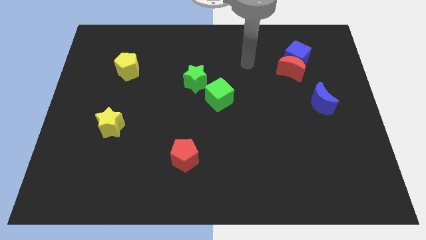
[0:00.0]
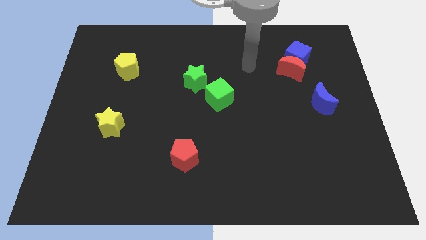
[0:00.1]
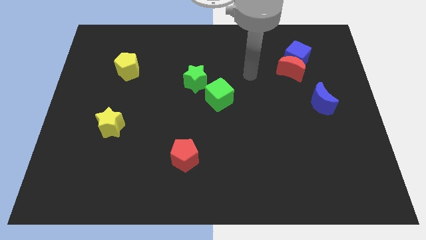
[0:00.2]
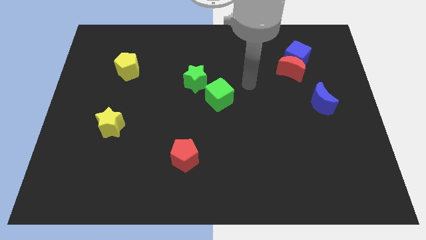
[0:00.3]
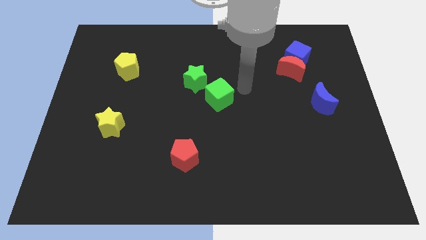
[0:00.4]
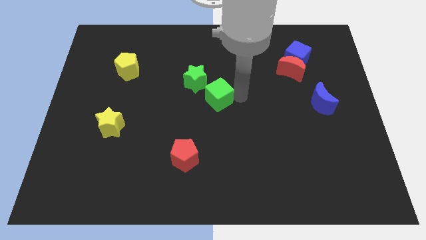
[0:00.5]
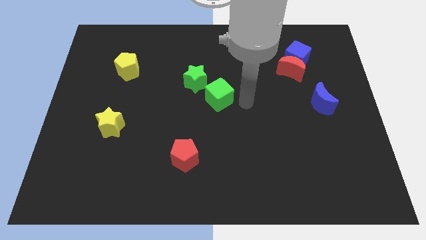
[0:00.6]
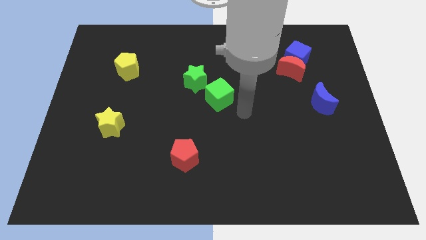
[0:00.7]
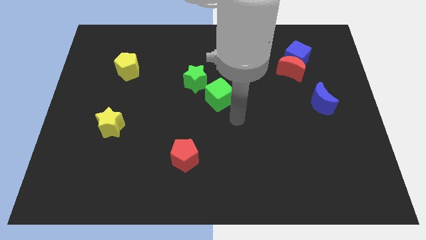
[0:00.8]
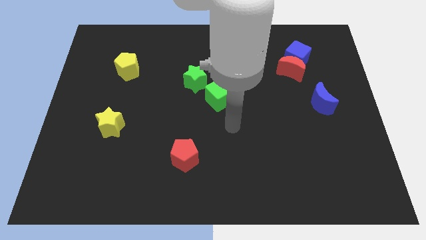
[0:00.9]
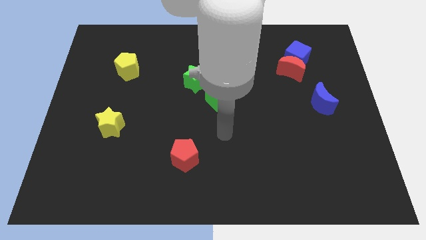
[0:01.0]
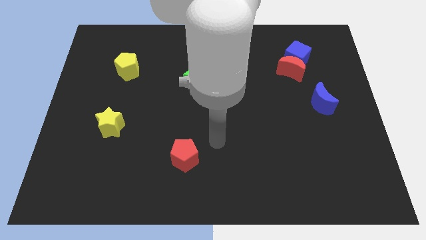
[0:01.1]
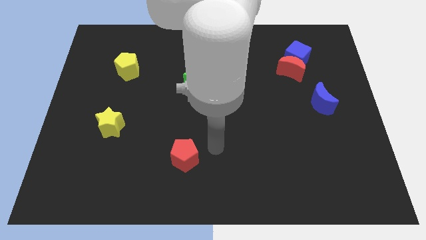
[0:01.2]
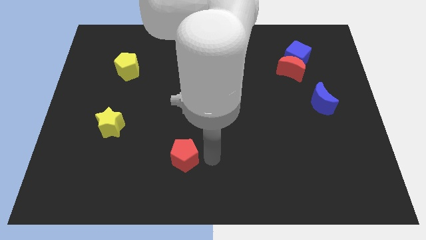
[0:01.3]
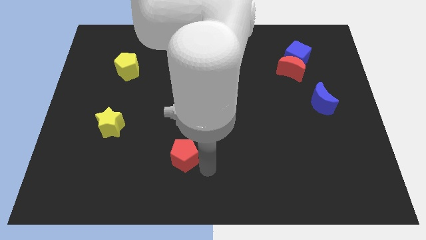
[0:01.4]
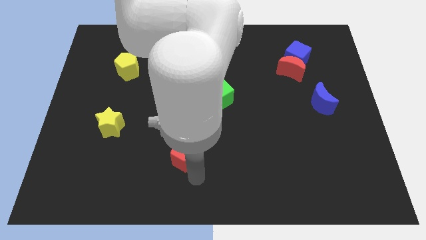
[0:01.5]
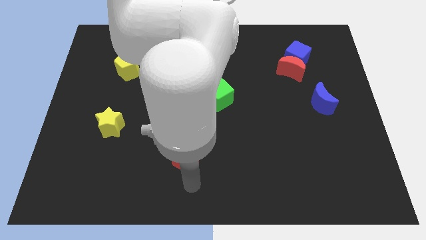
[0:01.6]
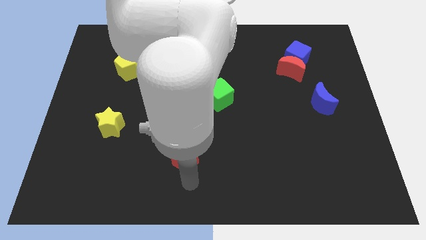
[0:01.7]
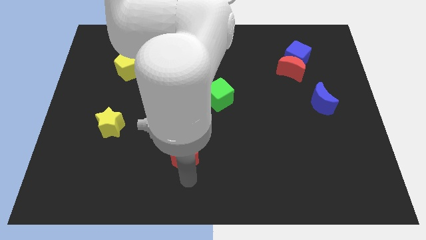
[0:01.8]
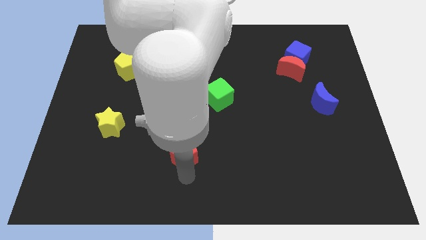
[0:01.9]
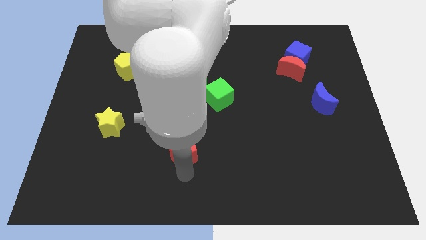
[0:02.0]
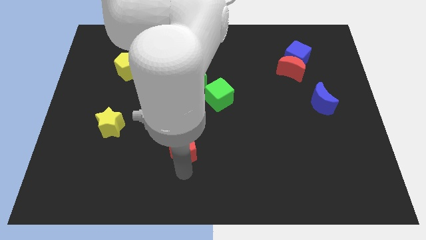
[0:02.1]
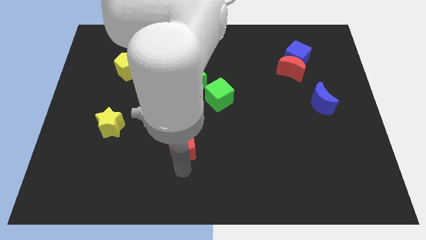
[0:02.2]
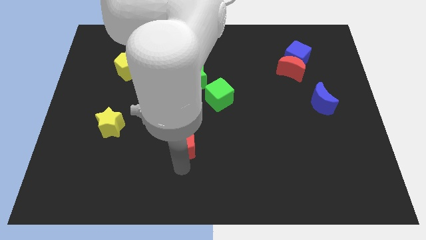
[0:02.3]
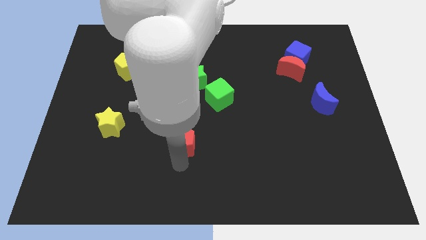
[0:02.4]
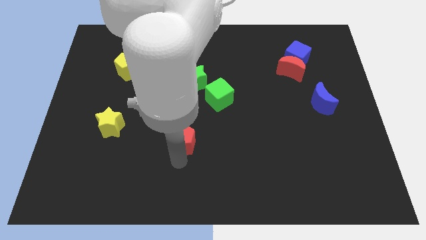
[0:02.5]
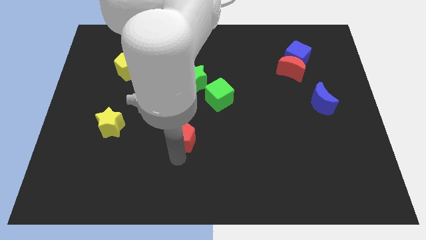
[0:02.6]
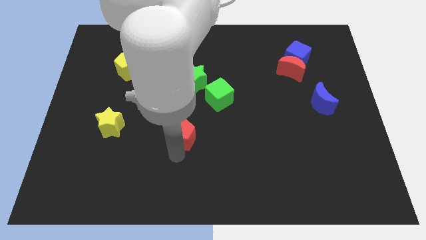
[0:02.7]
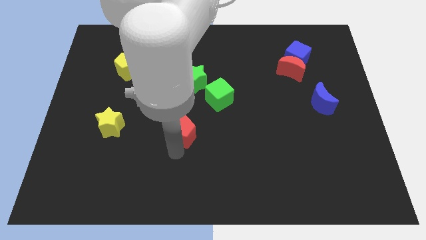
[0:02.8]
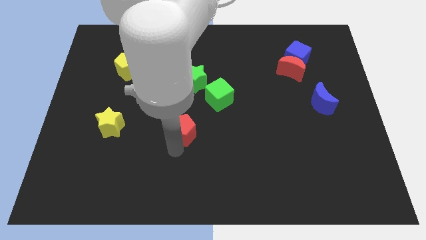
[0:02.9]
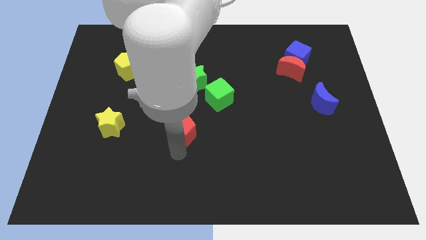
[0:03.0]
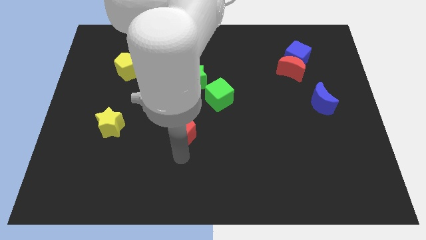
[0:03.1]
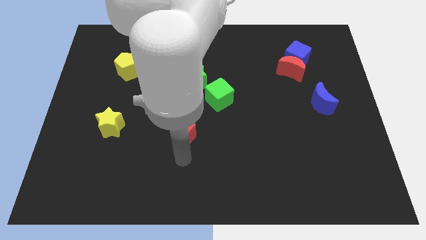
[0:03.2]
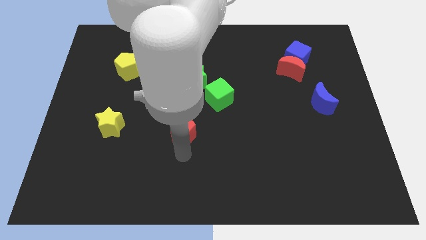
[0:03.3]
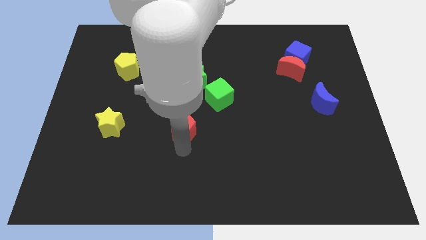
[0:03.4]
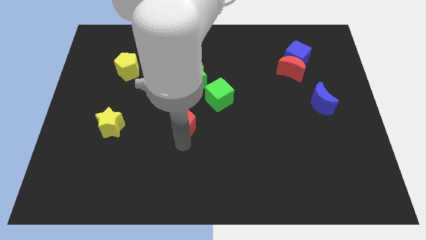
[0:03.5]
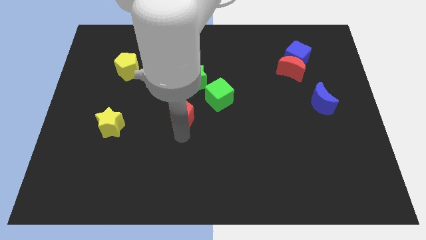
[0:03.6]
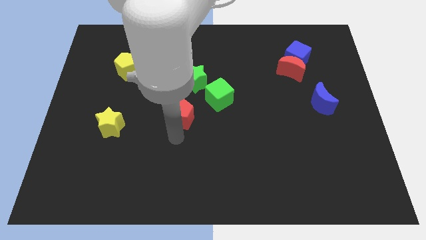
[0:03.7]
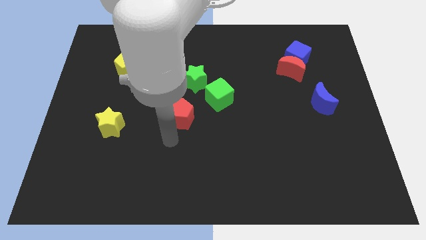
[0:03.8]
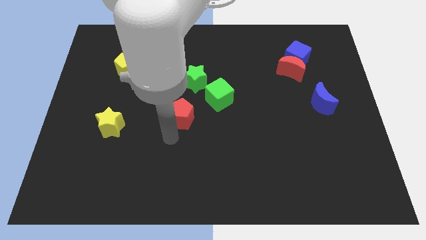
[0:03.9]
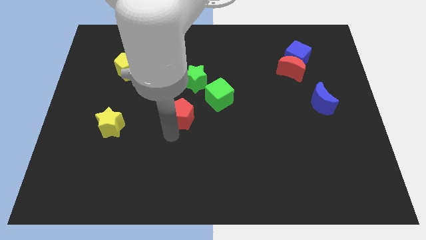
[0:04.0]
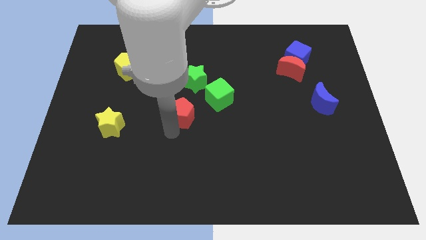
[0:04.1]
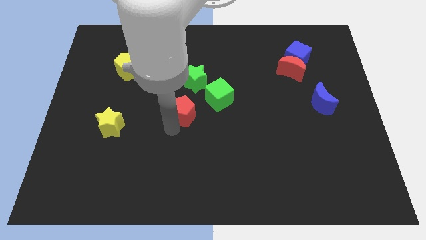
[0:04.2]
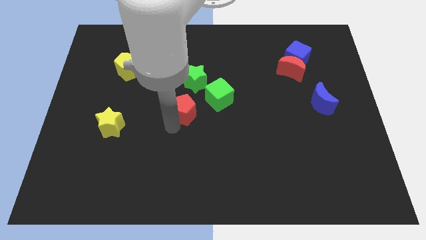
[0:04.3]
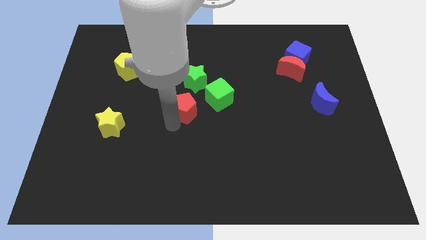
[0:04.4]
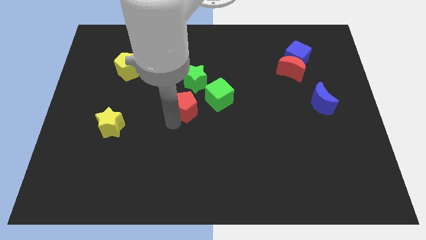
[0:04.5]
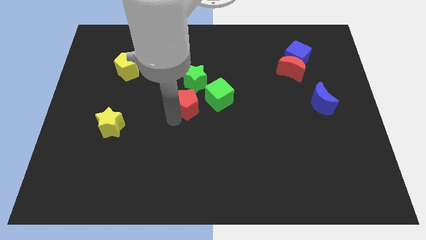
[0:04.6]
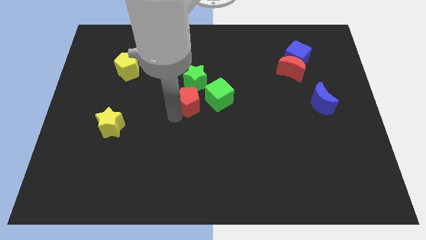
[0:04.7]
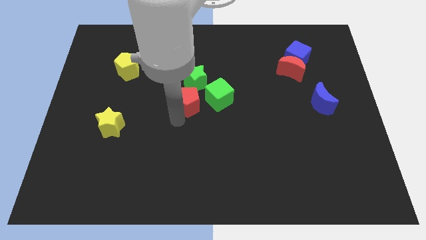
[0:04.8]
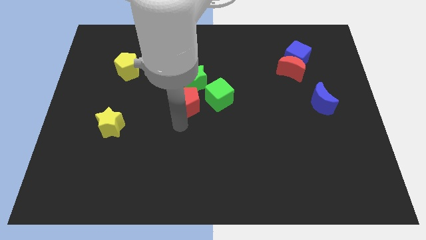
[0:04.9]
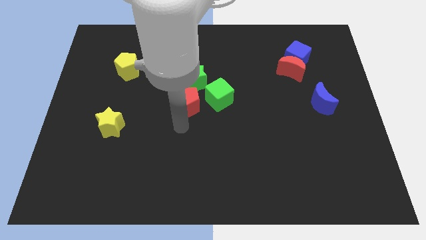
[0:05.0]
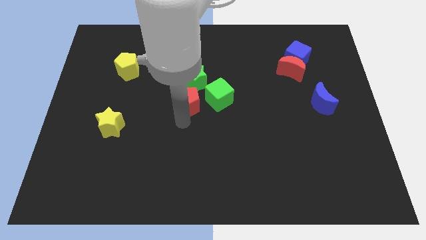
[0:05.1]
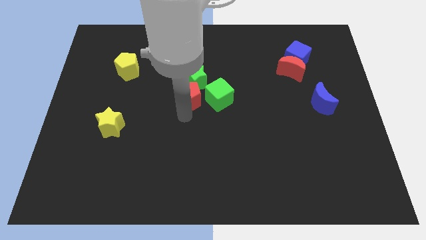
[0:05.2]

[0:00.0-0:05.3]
slide the red pentagon to the green star

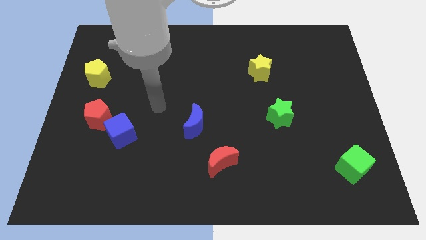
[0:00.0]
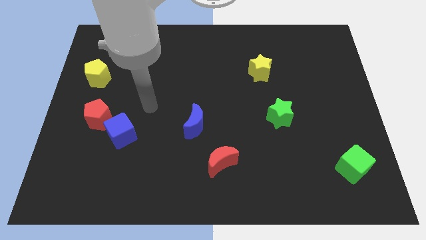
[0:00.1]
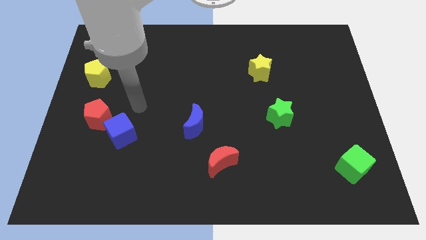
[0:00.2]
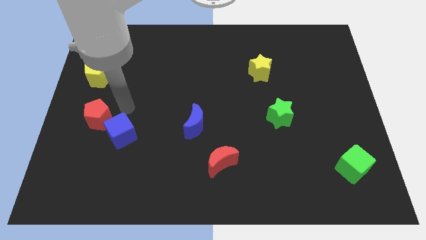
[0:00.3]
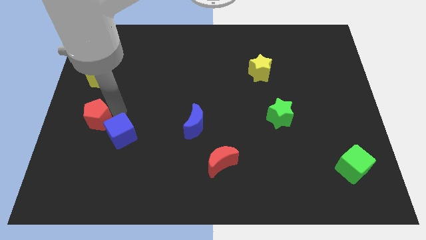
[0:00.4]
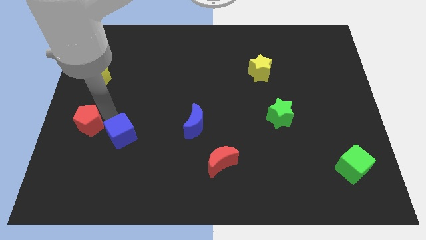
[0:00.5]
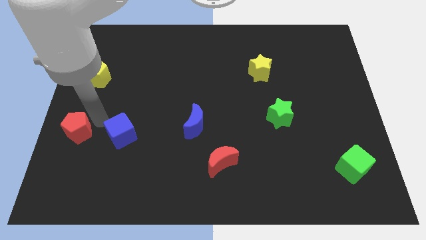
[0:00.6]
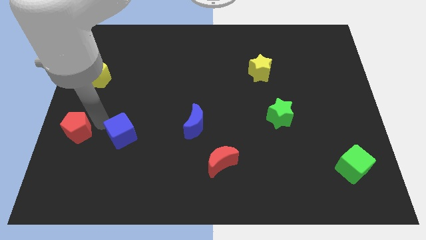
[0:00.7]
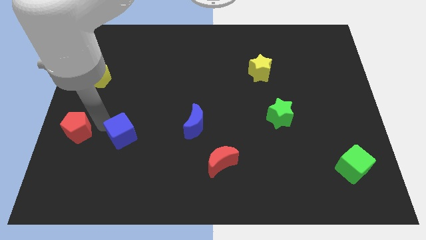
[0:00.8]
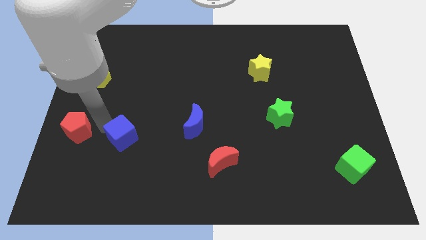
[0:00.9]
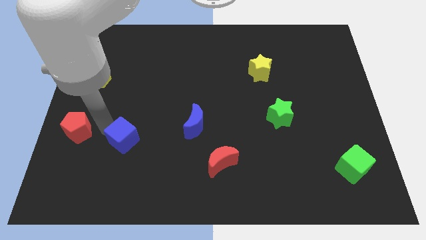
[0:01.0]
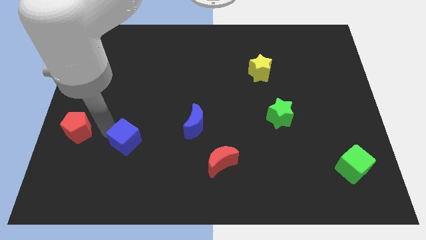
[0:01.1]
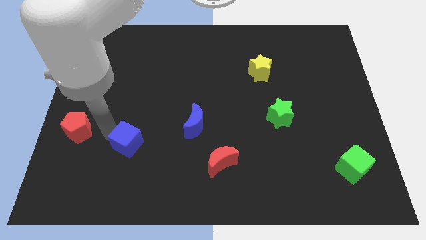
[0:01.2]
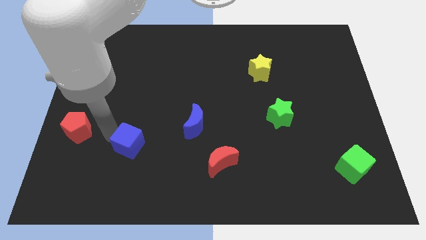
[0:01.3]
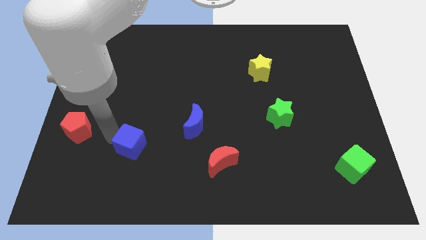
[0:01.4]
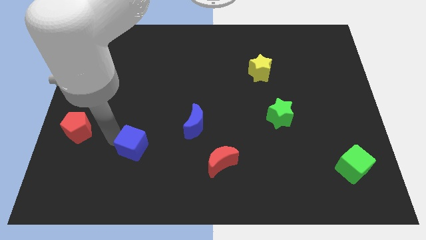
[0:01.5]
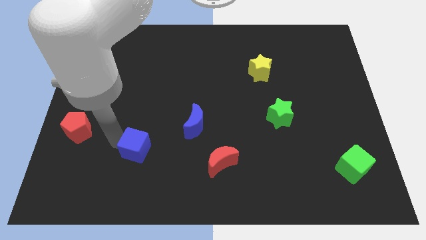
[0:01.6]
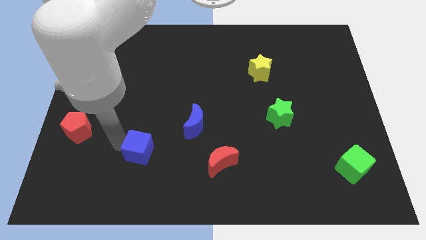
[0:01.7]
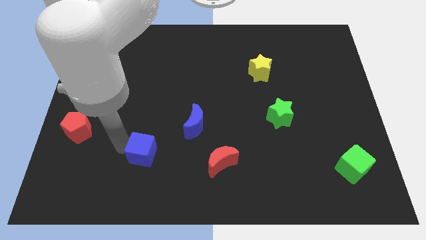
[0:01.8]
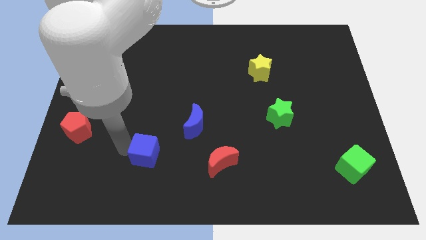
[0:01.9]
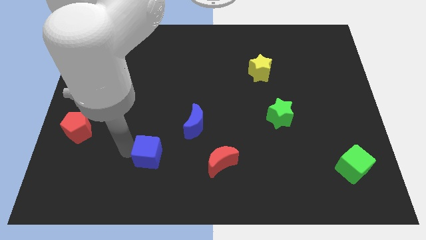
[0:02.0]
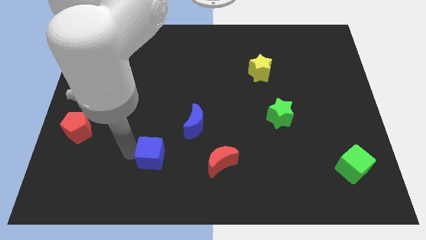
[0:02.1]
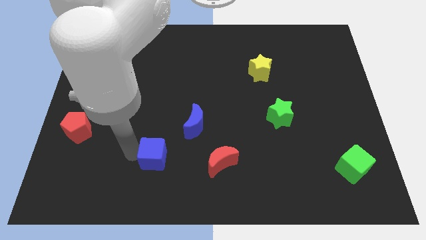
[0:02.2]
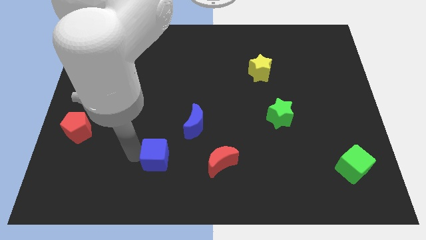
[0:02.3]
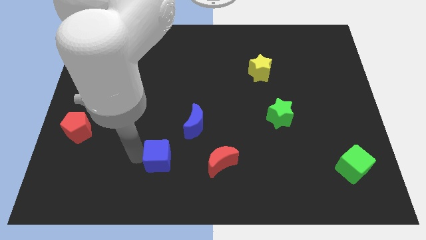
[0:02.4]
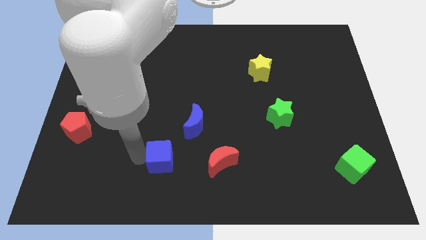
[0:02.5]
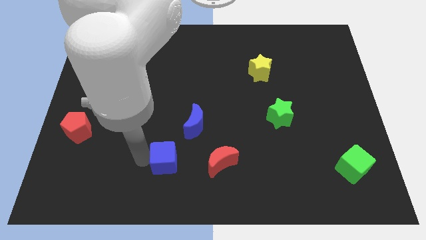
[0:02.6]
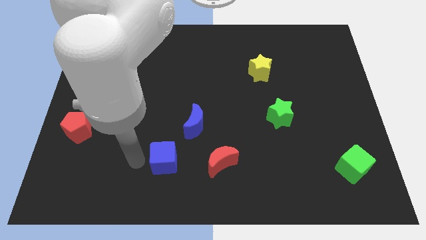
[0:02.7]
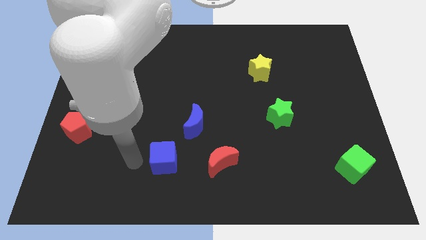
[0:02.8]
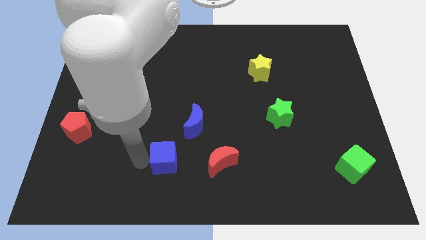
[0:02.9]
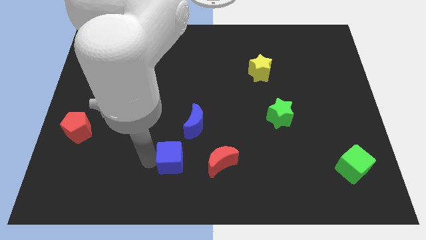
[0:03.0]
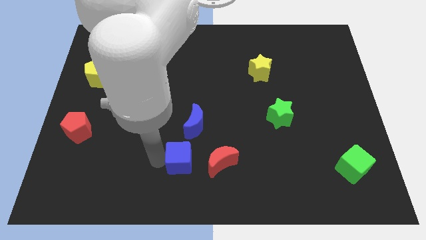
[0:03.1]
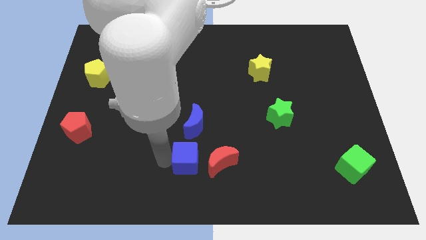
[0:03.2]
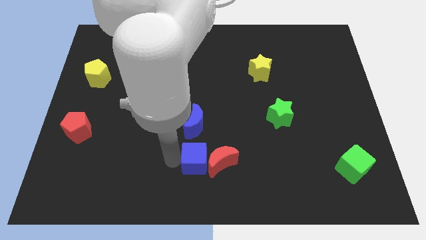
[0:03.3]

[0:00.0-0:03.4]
push the blue cube towards the red moon
